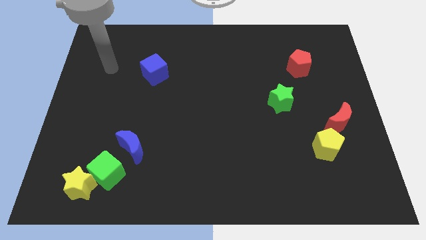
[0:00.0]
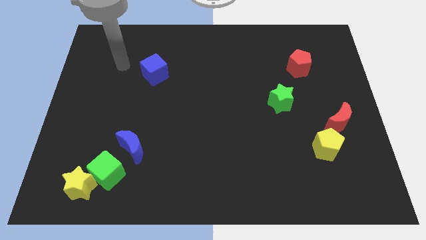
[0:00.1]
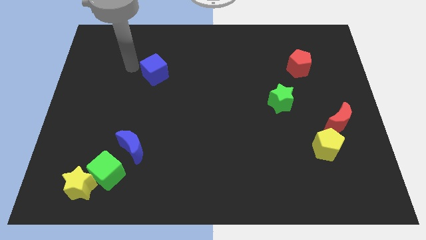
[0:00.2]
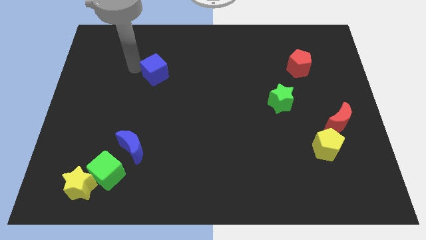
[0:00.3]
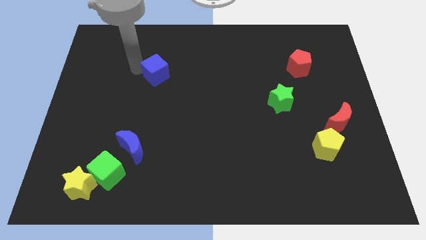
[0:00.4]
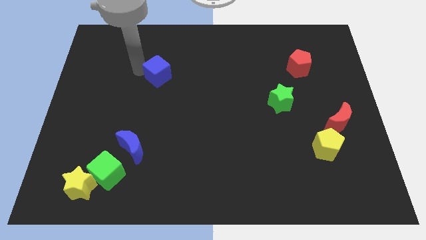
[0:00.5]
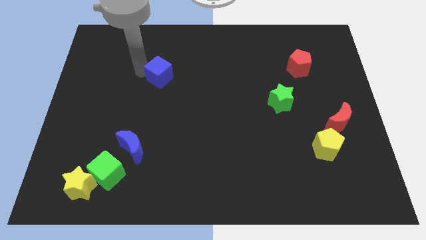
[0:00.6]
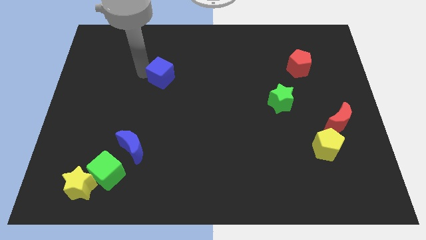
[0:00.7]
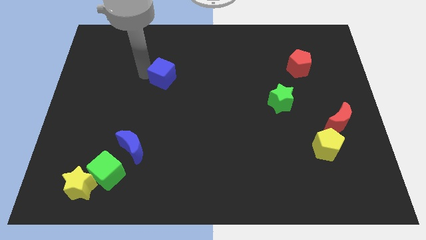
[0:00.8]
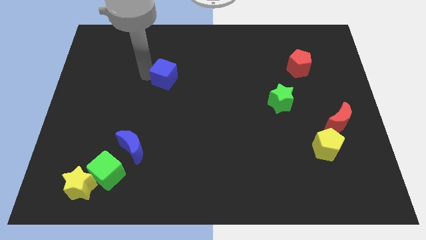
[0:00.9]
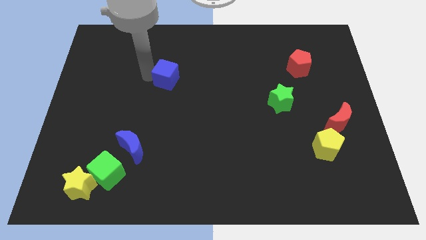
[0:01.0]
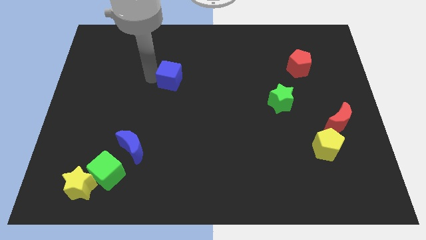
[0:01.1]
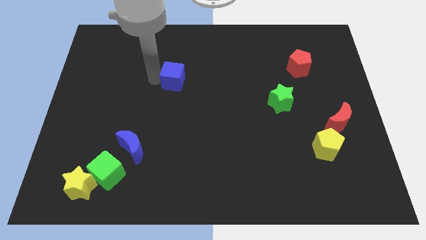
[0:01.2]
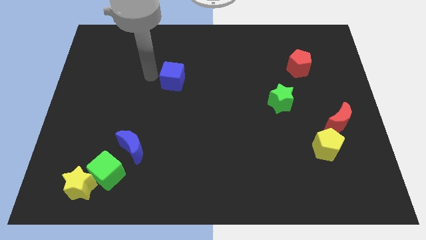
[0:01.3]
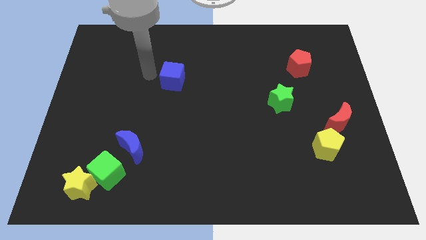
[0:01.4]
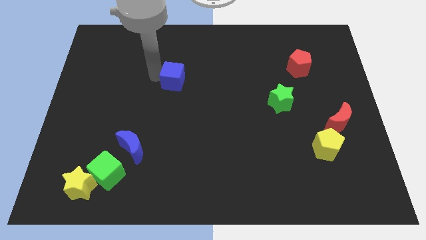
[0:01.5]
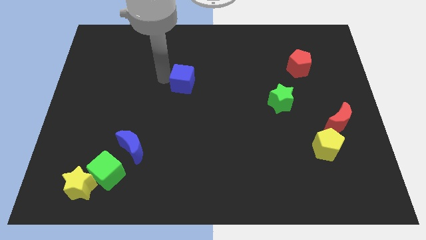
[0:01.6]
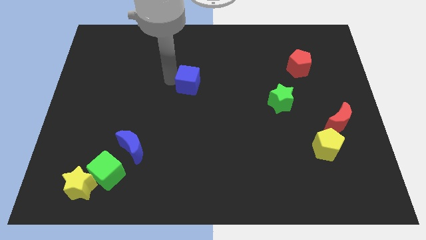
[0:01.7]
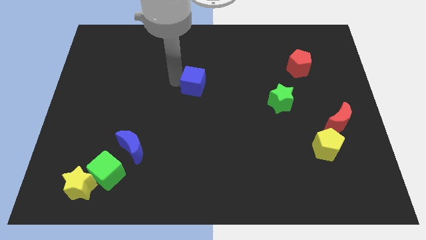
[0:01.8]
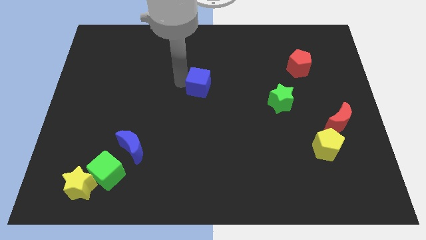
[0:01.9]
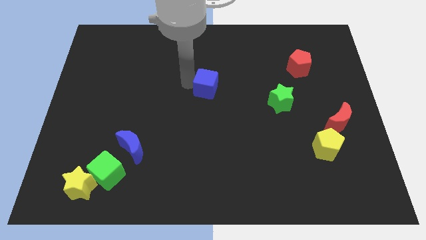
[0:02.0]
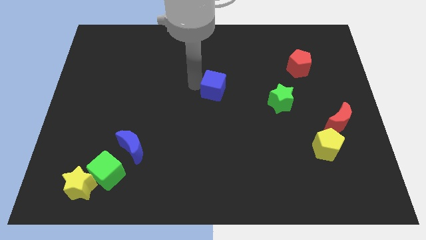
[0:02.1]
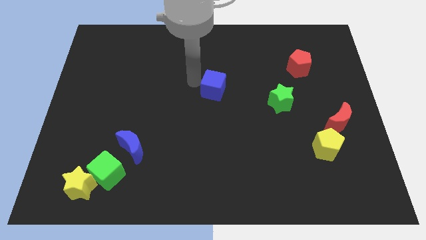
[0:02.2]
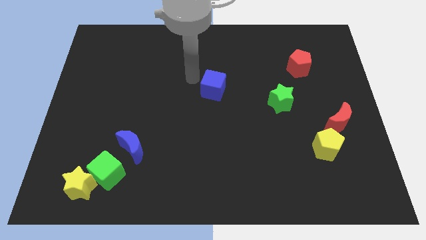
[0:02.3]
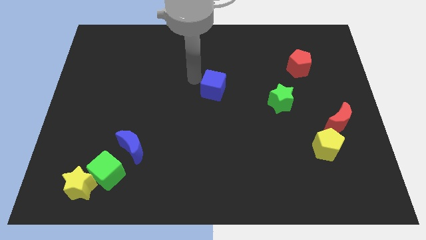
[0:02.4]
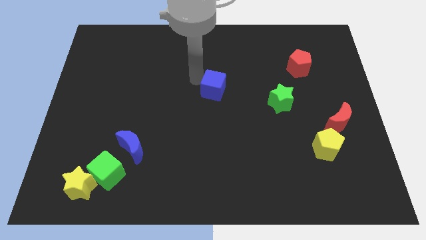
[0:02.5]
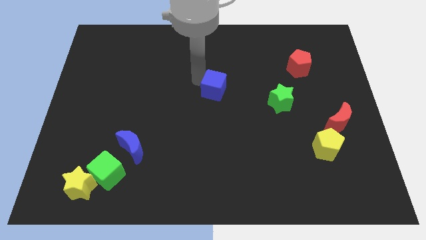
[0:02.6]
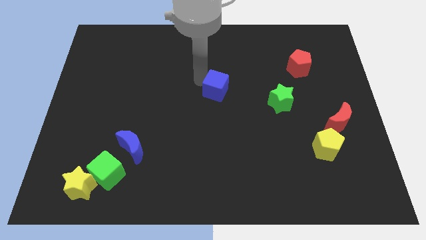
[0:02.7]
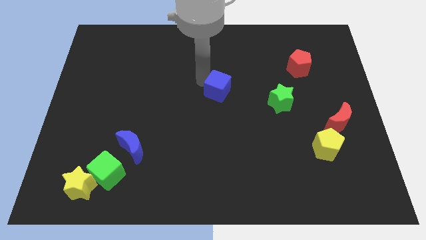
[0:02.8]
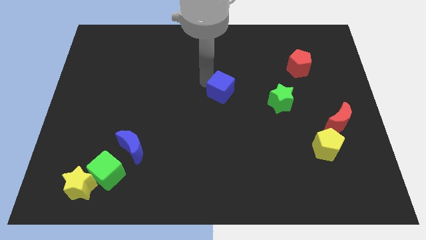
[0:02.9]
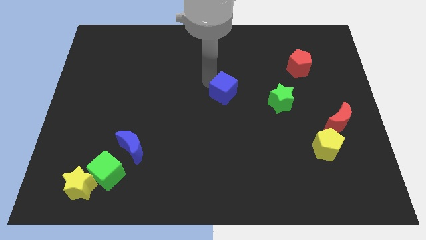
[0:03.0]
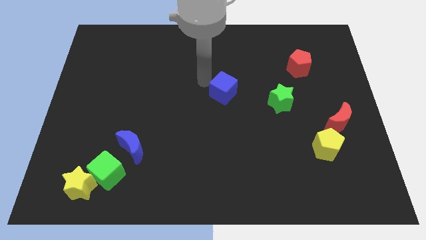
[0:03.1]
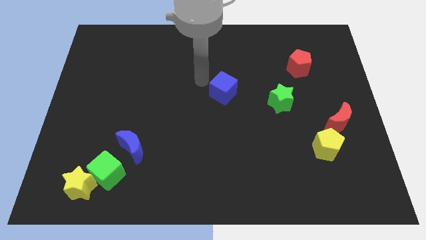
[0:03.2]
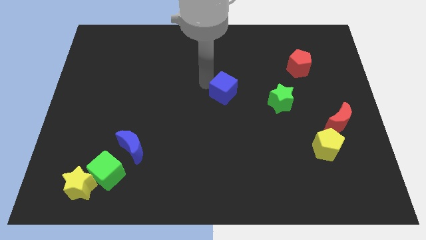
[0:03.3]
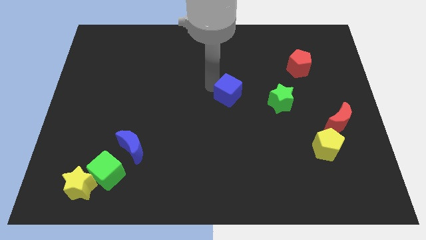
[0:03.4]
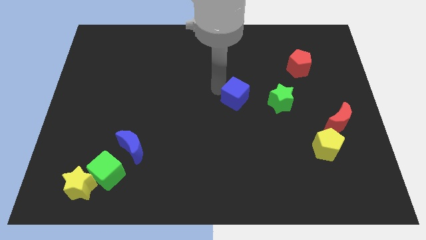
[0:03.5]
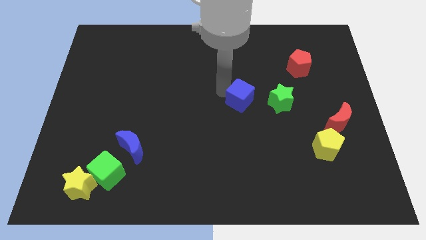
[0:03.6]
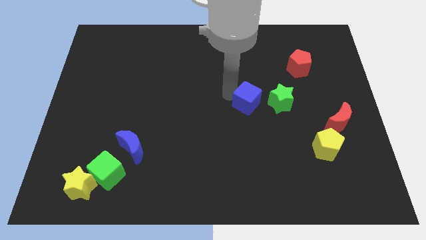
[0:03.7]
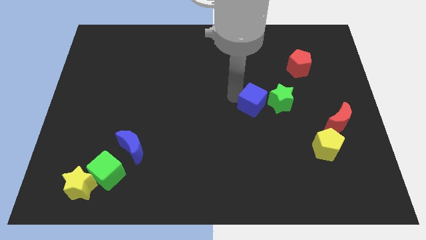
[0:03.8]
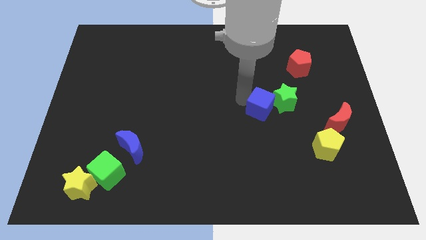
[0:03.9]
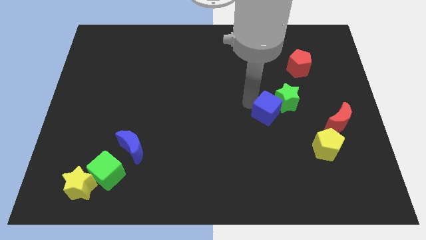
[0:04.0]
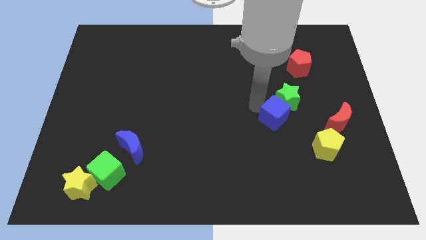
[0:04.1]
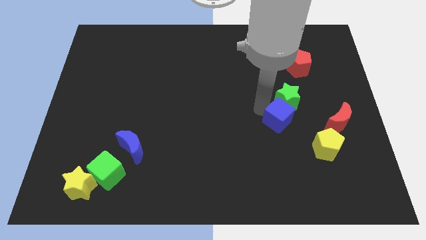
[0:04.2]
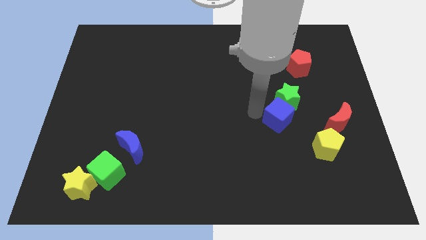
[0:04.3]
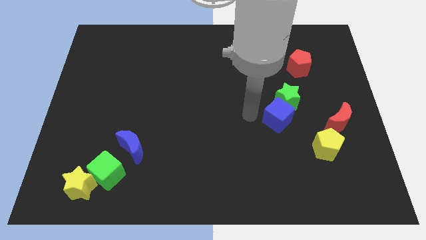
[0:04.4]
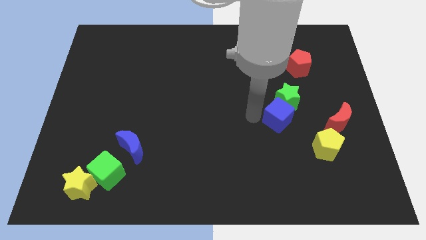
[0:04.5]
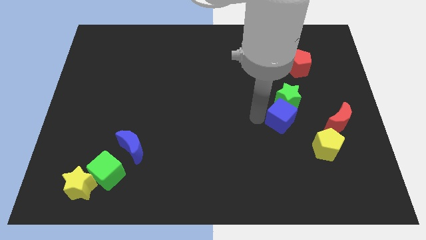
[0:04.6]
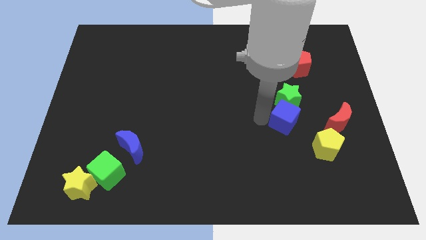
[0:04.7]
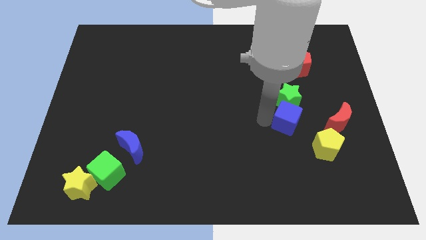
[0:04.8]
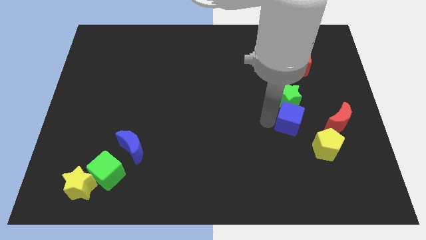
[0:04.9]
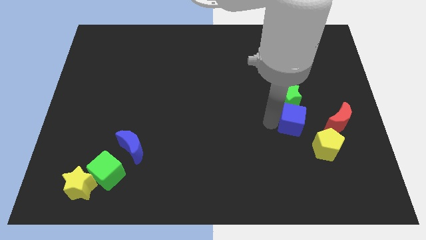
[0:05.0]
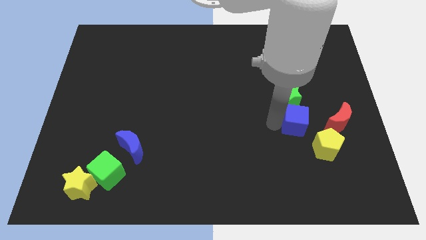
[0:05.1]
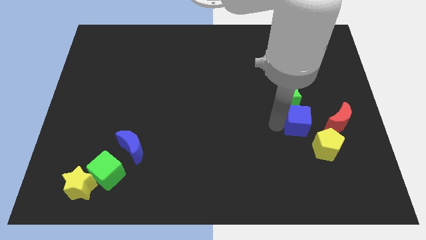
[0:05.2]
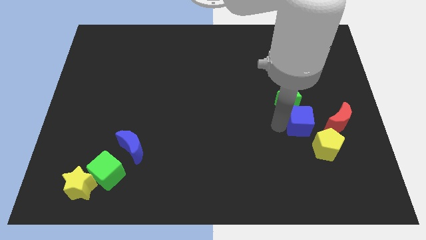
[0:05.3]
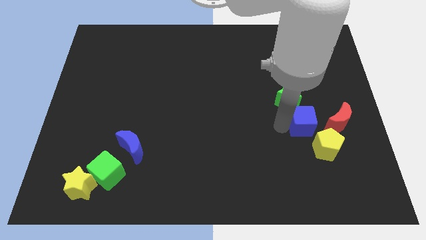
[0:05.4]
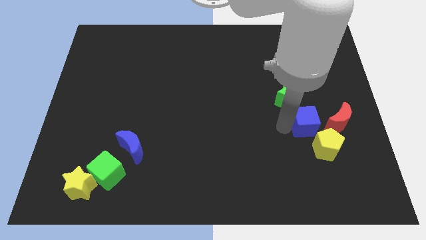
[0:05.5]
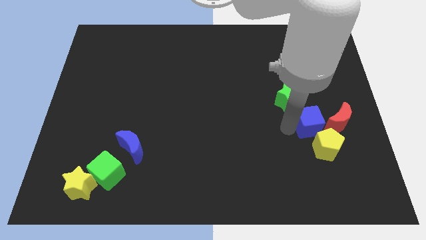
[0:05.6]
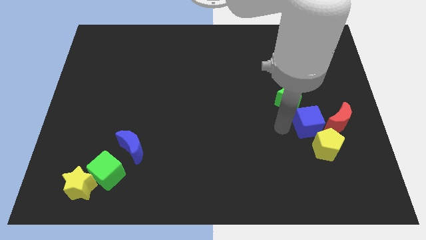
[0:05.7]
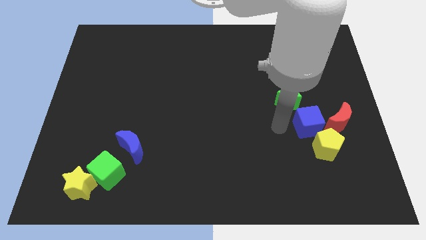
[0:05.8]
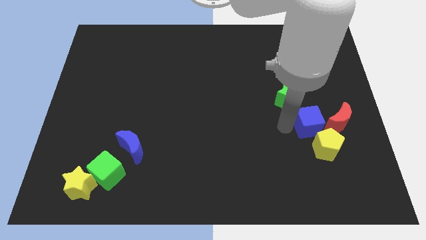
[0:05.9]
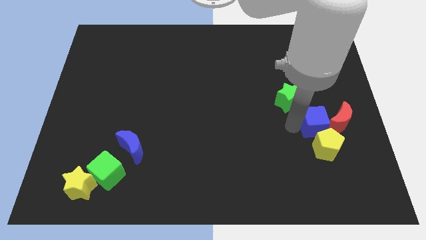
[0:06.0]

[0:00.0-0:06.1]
put the blue cube towards the red moon
